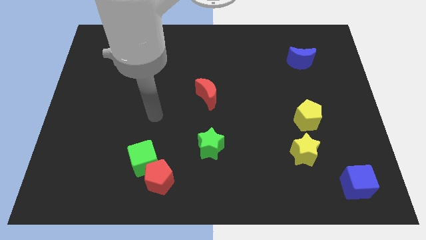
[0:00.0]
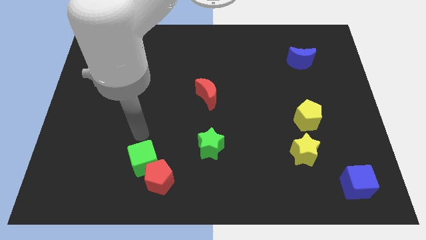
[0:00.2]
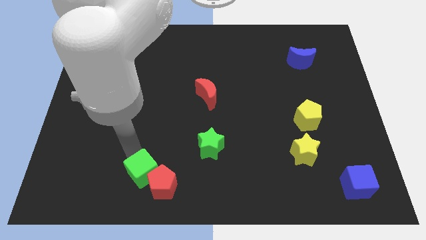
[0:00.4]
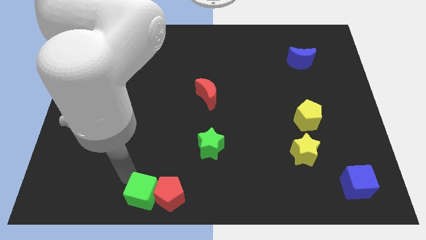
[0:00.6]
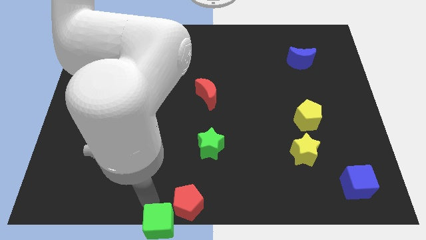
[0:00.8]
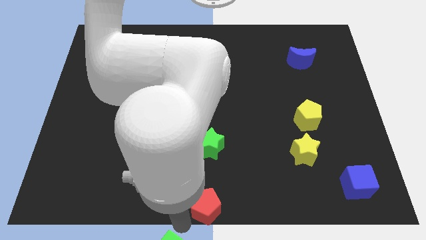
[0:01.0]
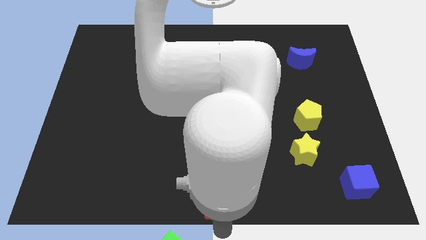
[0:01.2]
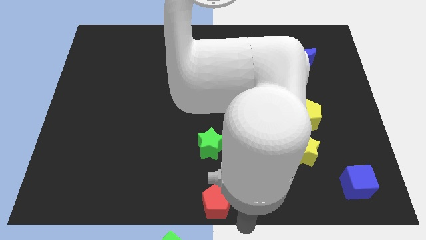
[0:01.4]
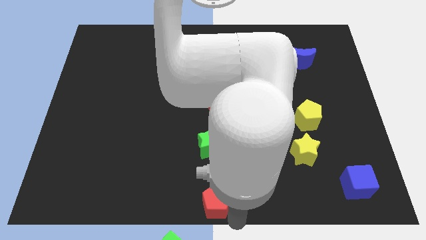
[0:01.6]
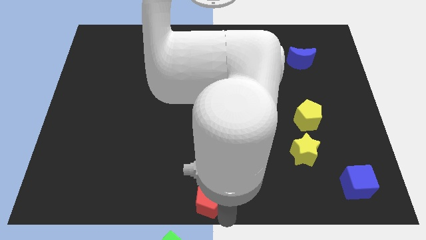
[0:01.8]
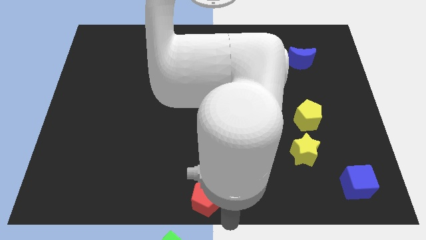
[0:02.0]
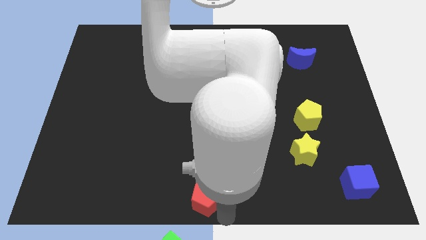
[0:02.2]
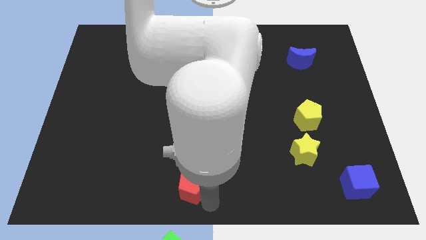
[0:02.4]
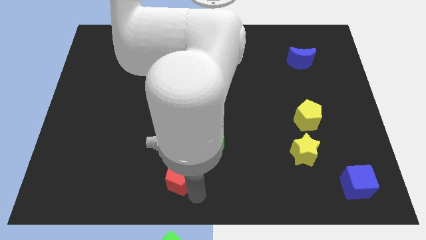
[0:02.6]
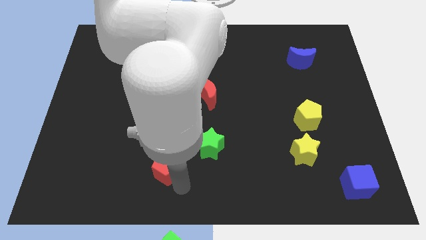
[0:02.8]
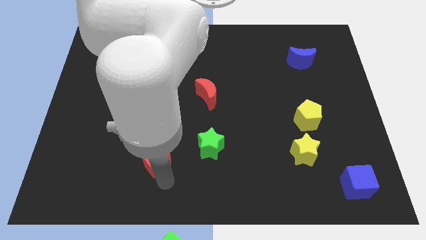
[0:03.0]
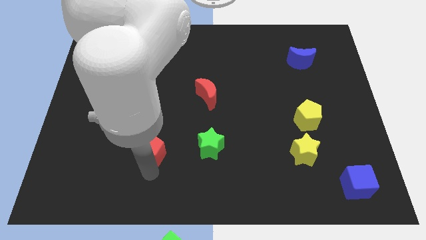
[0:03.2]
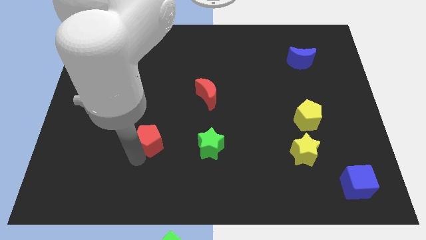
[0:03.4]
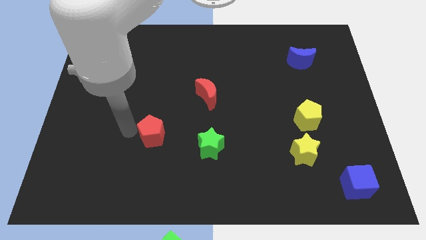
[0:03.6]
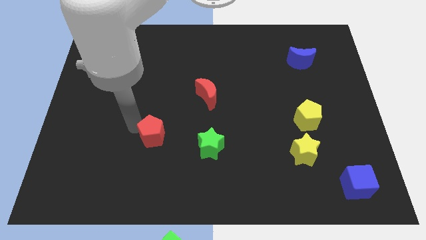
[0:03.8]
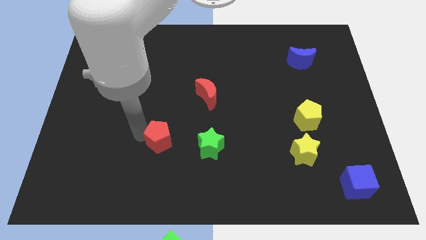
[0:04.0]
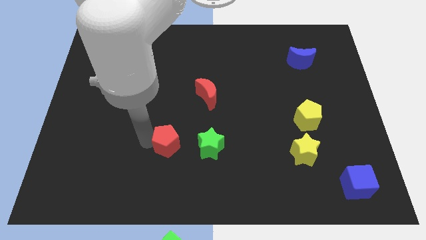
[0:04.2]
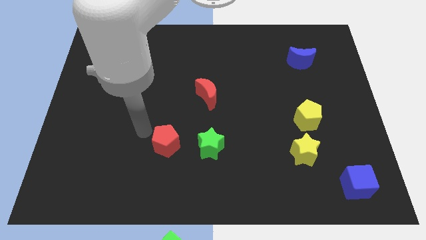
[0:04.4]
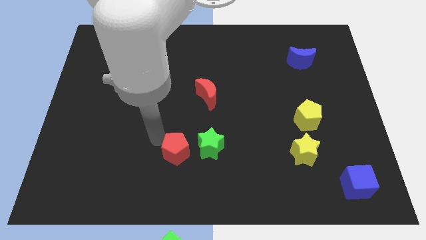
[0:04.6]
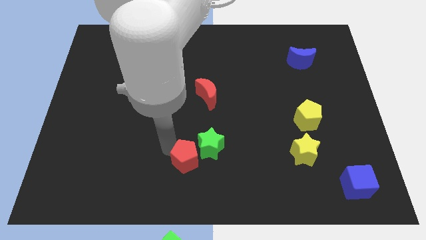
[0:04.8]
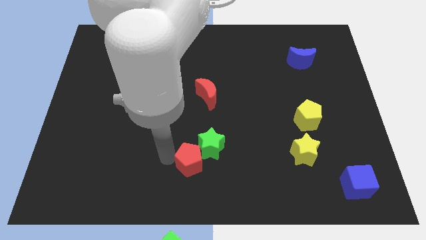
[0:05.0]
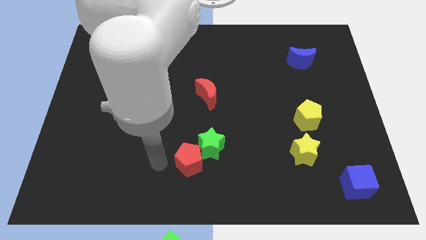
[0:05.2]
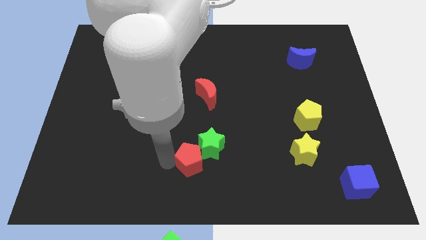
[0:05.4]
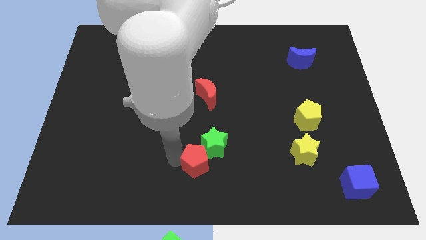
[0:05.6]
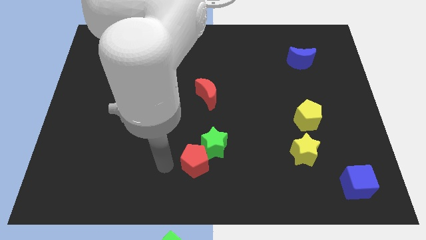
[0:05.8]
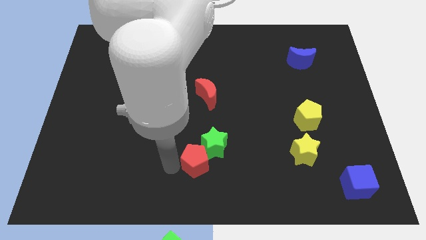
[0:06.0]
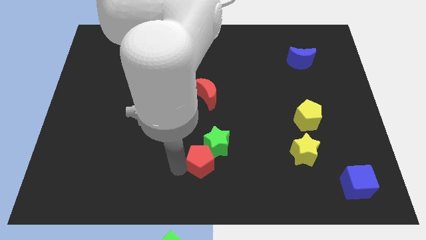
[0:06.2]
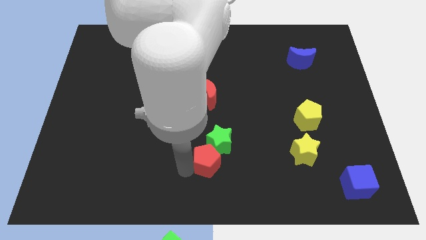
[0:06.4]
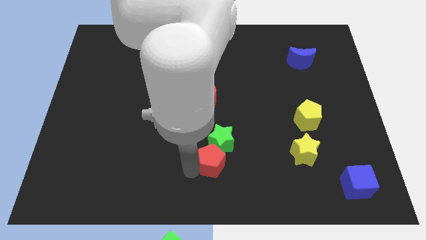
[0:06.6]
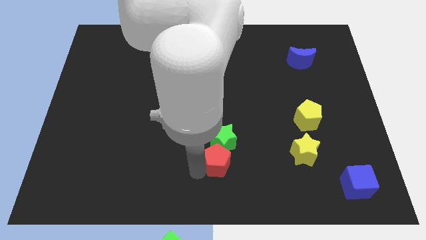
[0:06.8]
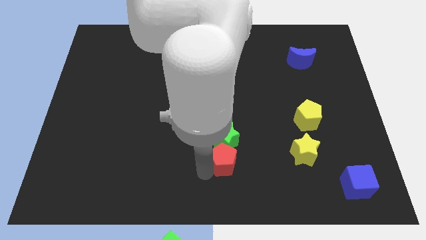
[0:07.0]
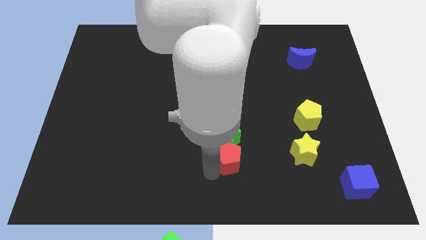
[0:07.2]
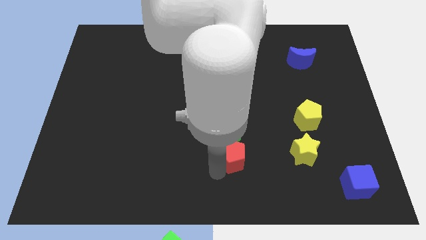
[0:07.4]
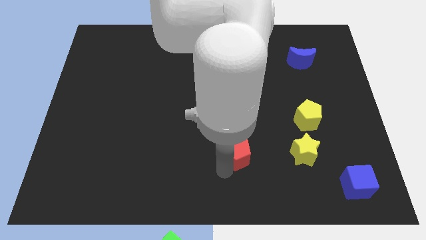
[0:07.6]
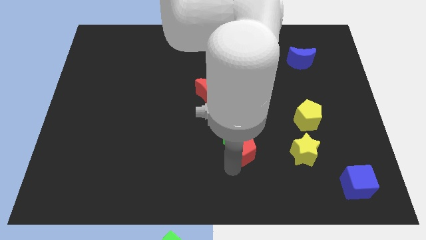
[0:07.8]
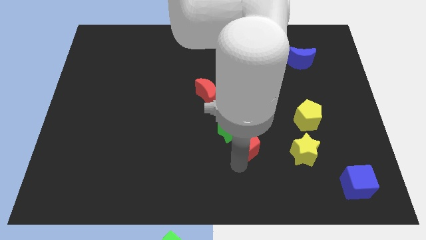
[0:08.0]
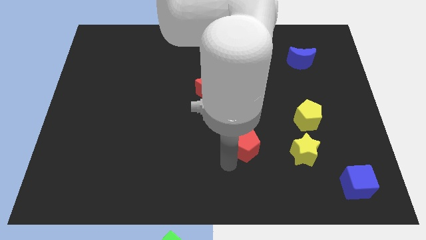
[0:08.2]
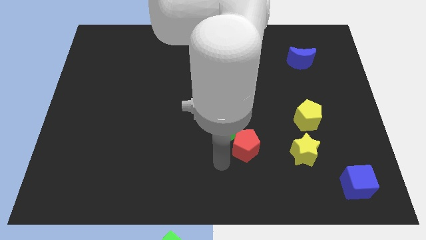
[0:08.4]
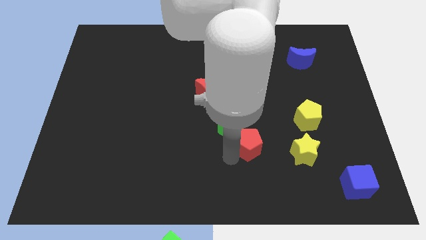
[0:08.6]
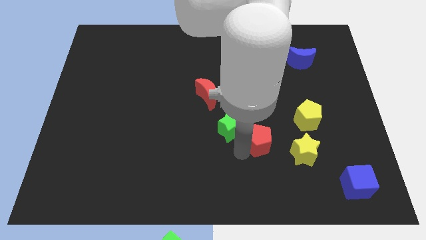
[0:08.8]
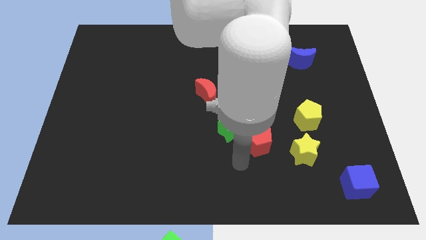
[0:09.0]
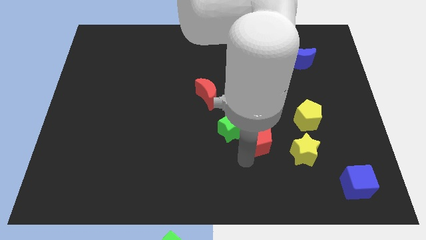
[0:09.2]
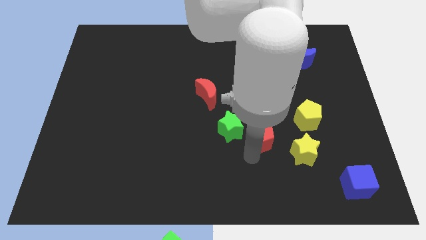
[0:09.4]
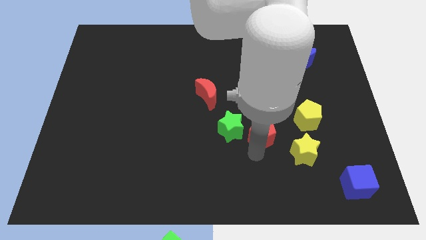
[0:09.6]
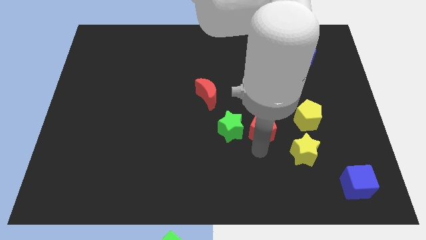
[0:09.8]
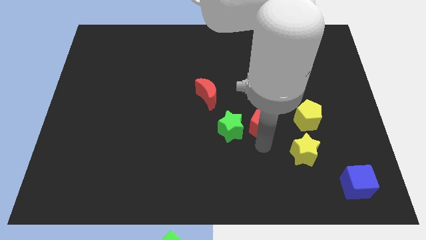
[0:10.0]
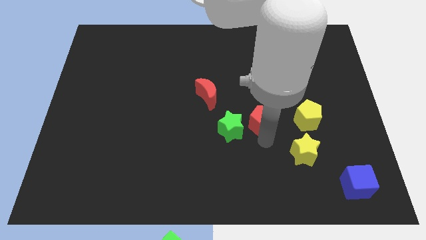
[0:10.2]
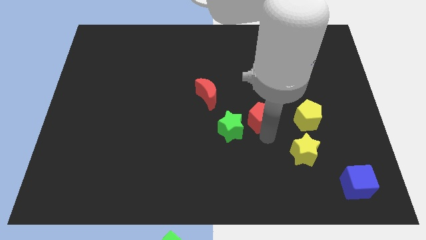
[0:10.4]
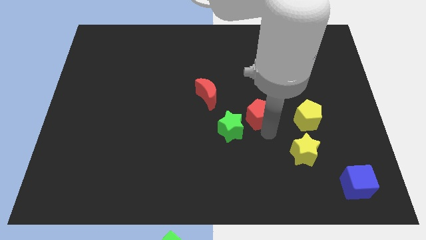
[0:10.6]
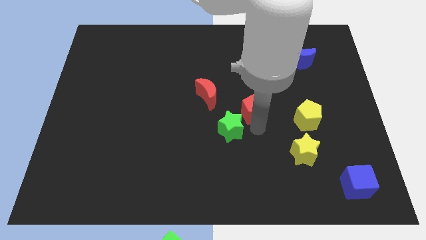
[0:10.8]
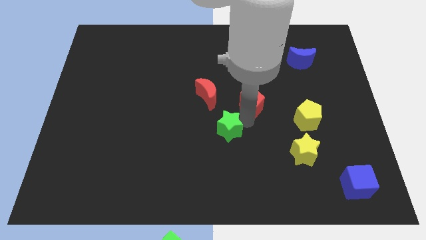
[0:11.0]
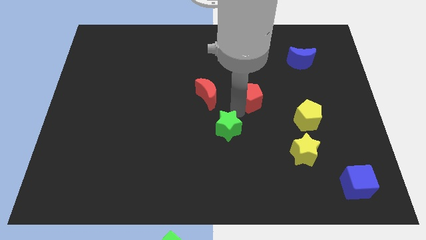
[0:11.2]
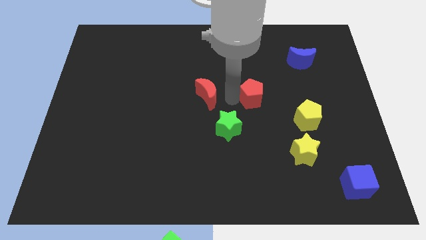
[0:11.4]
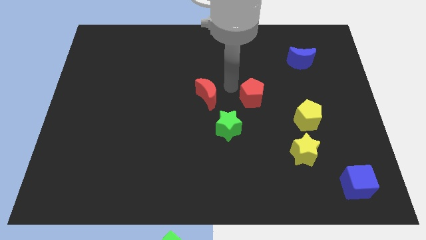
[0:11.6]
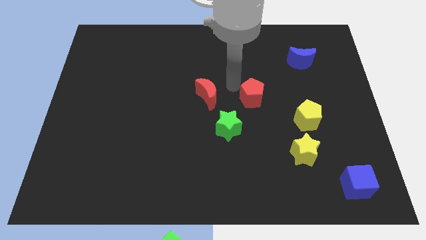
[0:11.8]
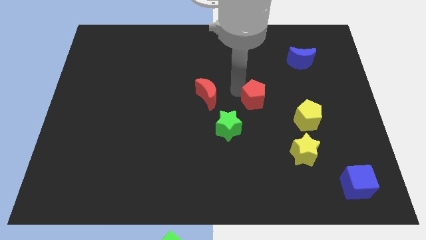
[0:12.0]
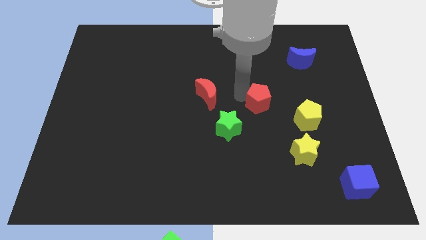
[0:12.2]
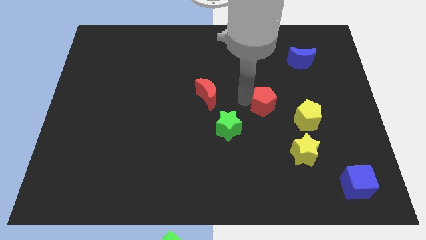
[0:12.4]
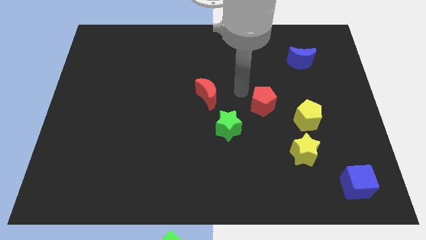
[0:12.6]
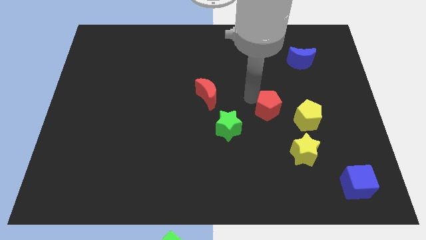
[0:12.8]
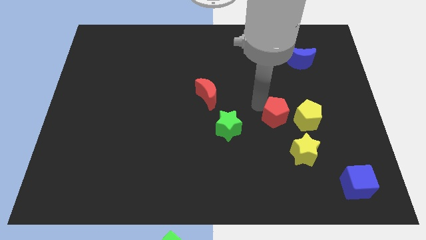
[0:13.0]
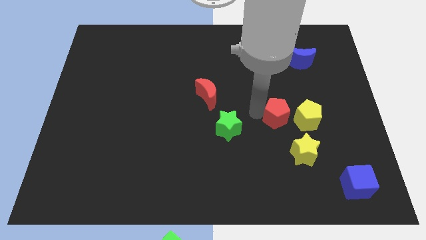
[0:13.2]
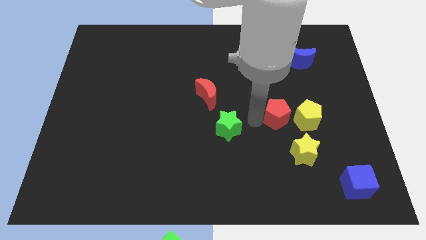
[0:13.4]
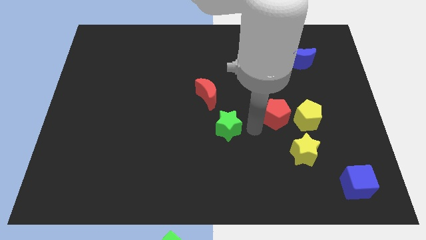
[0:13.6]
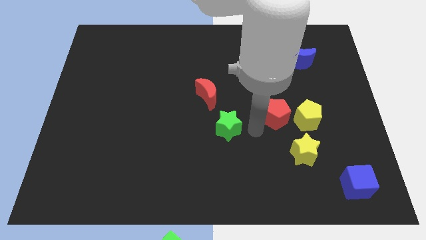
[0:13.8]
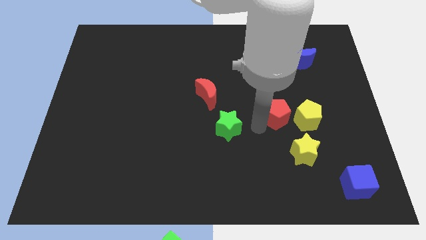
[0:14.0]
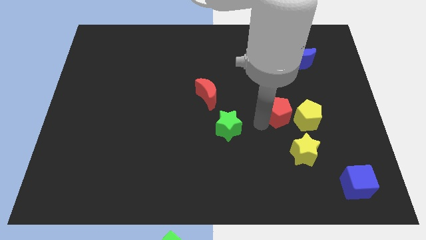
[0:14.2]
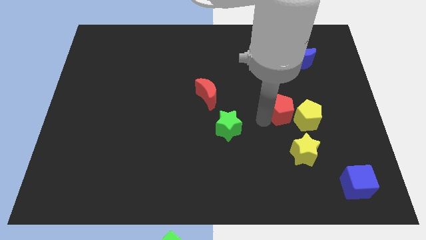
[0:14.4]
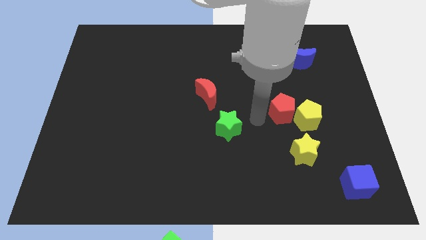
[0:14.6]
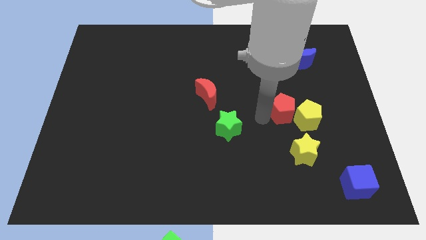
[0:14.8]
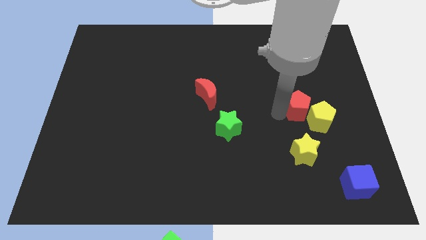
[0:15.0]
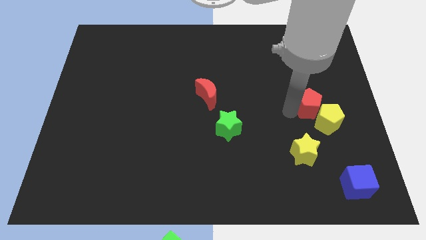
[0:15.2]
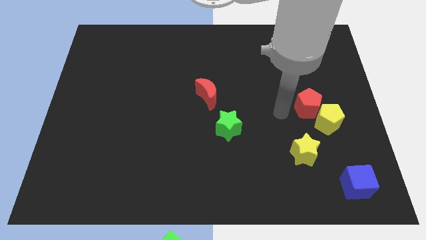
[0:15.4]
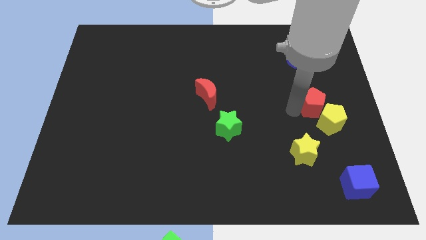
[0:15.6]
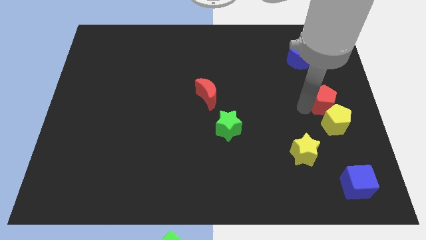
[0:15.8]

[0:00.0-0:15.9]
push the red pentagon to the right side of the board
